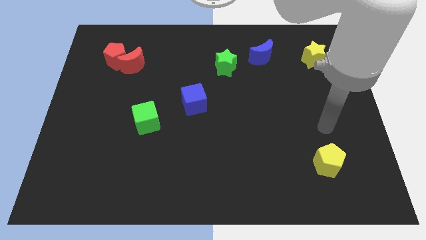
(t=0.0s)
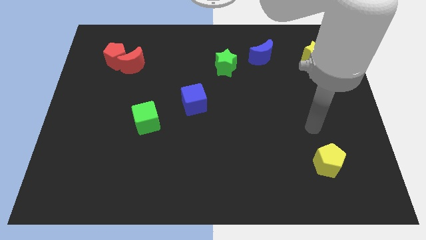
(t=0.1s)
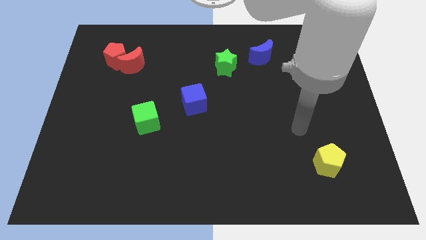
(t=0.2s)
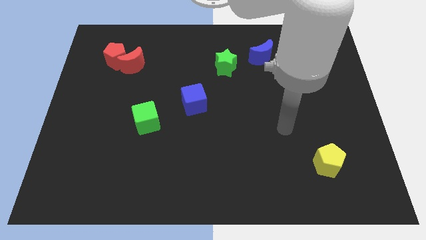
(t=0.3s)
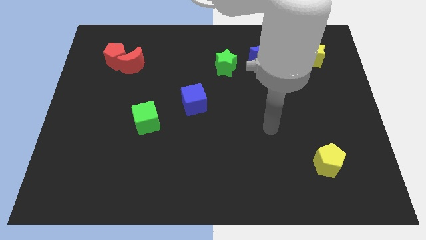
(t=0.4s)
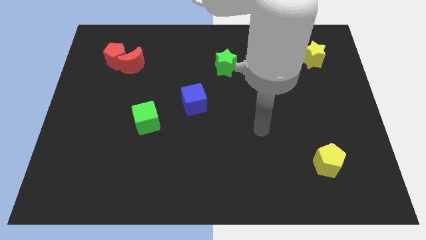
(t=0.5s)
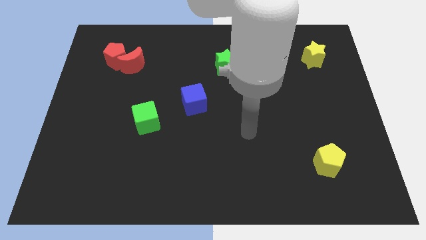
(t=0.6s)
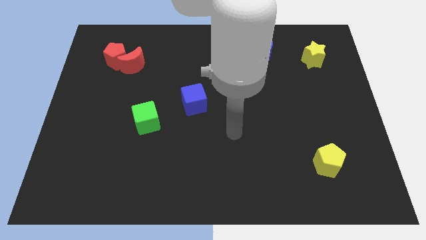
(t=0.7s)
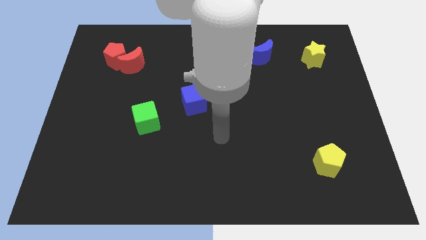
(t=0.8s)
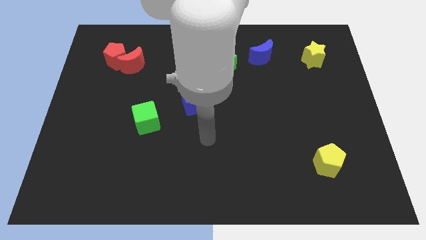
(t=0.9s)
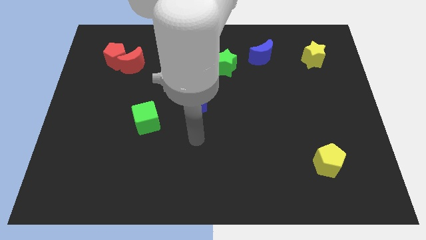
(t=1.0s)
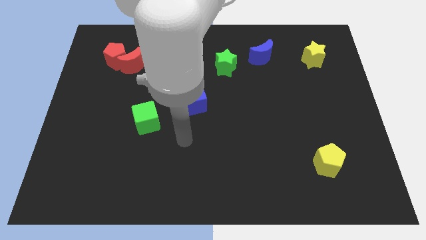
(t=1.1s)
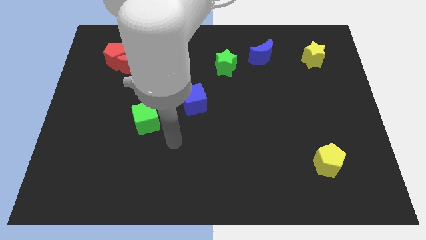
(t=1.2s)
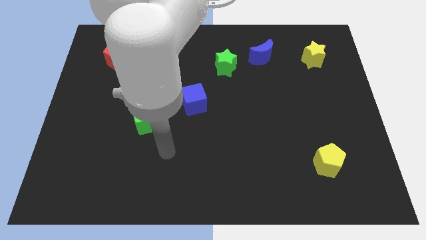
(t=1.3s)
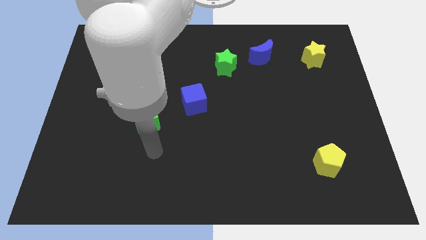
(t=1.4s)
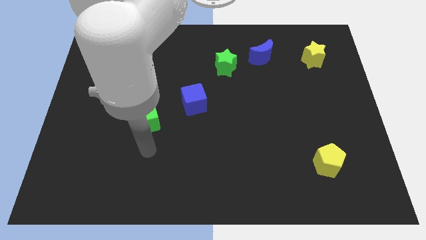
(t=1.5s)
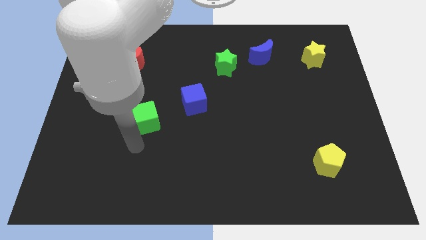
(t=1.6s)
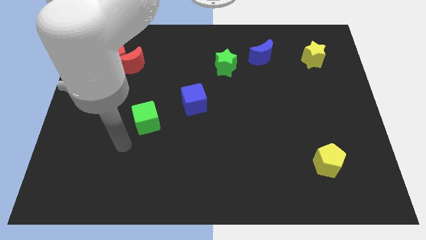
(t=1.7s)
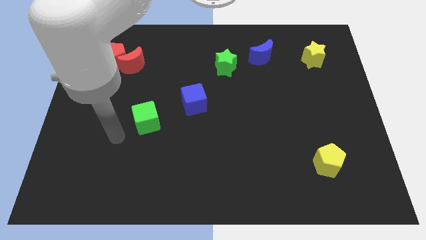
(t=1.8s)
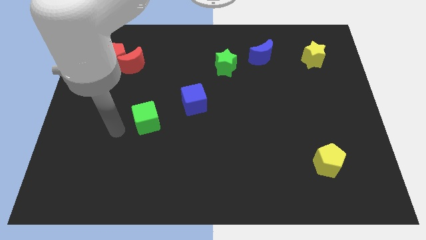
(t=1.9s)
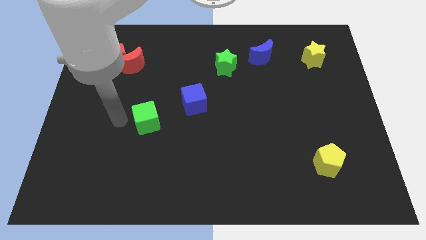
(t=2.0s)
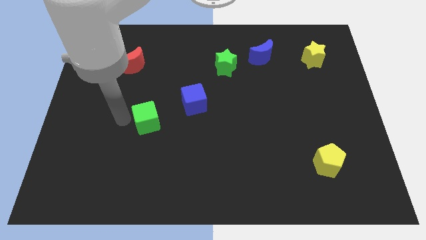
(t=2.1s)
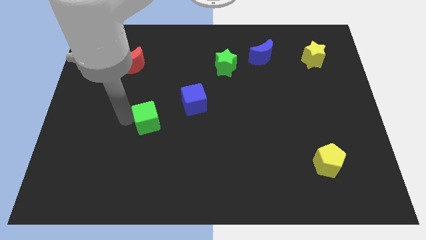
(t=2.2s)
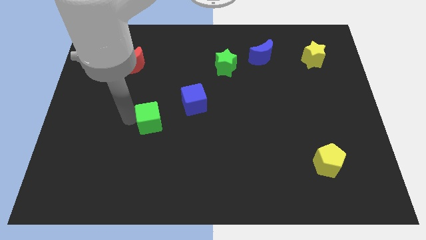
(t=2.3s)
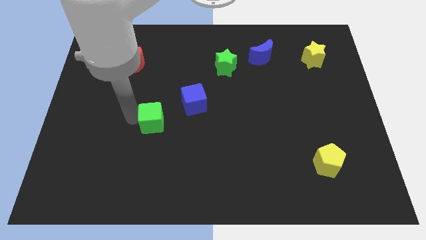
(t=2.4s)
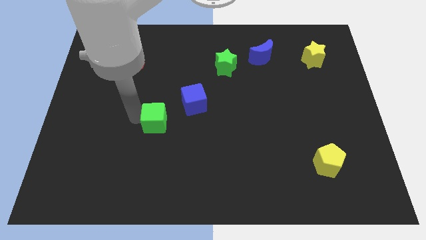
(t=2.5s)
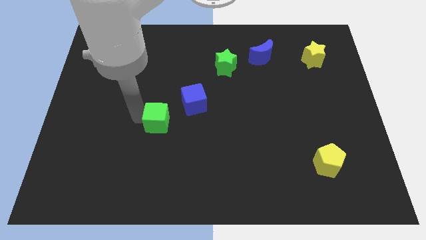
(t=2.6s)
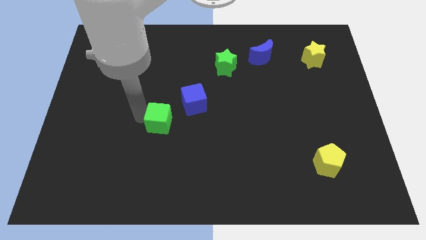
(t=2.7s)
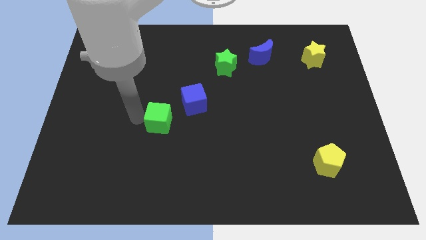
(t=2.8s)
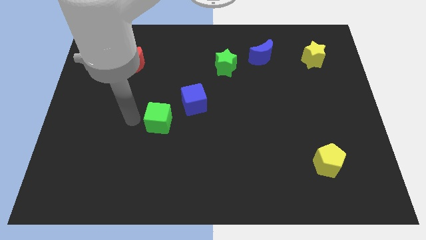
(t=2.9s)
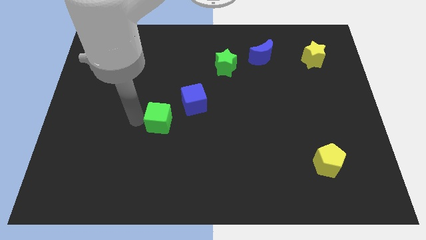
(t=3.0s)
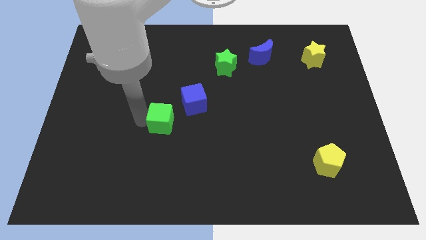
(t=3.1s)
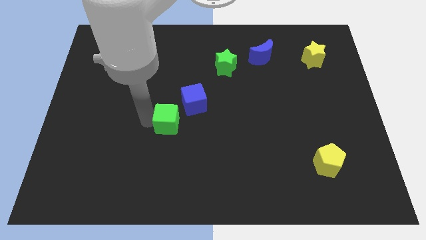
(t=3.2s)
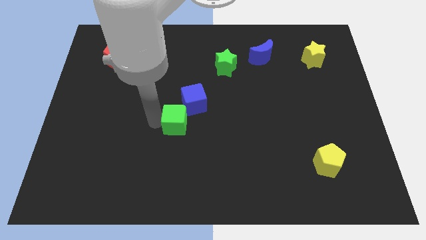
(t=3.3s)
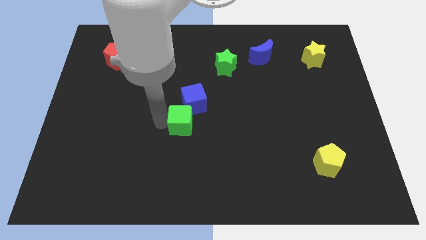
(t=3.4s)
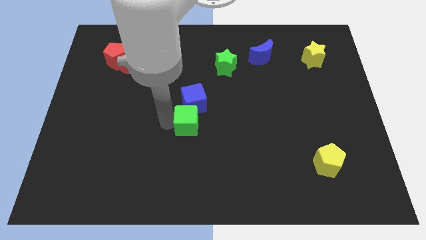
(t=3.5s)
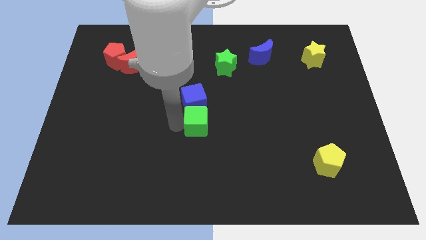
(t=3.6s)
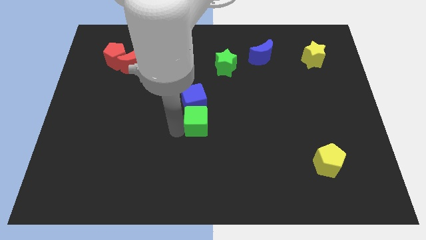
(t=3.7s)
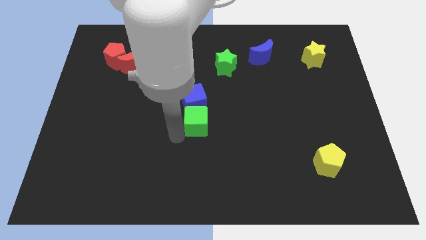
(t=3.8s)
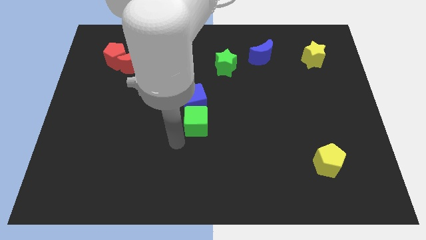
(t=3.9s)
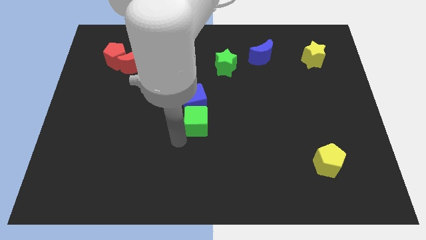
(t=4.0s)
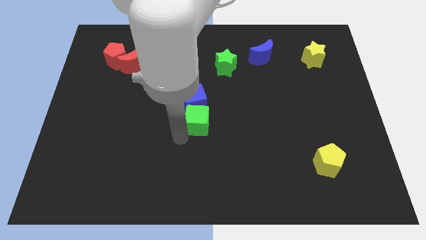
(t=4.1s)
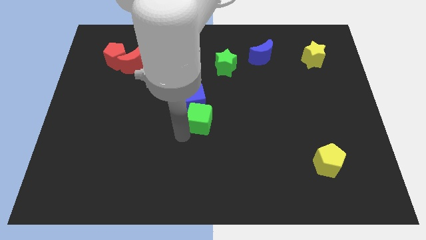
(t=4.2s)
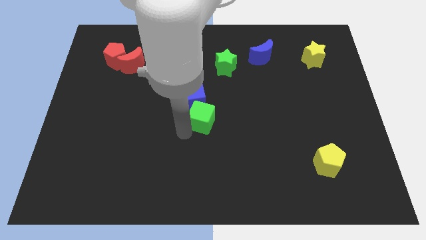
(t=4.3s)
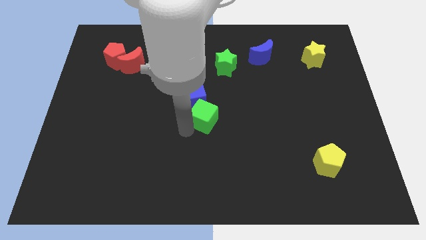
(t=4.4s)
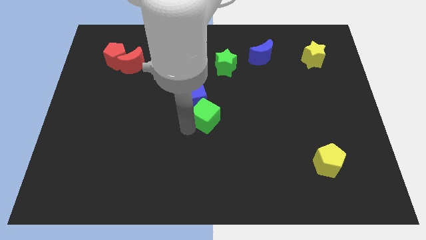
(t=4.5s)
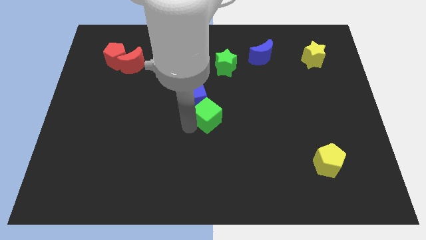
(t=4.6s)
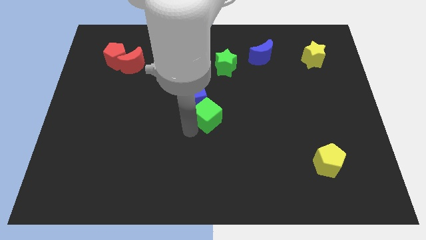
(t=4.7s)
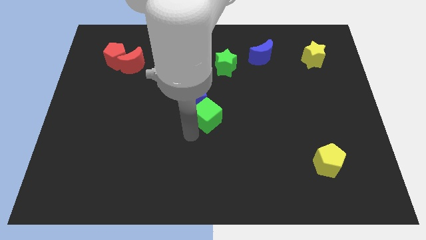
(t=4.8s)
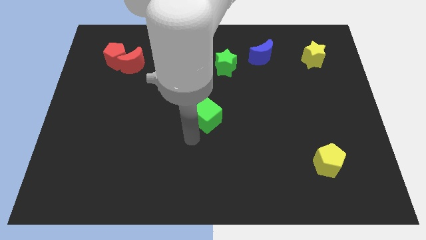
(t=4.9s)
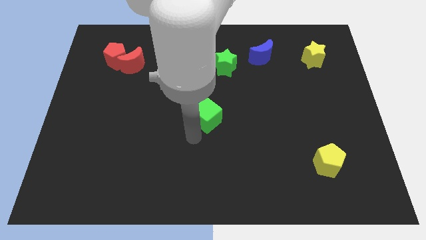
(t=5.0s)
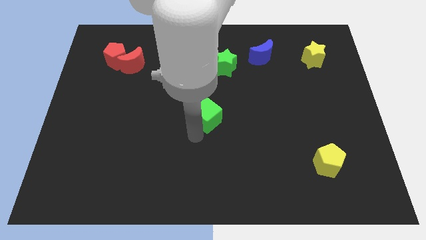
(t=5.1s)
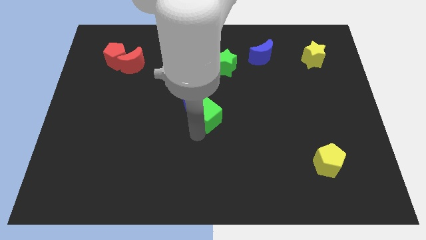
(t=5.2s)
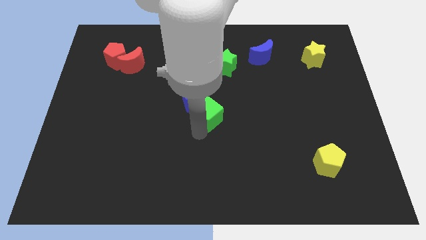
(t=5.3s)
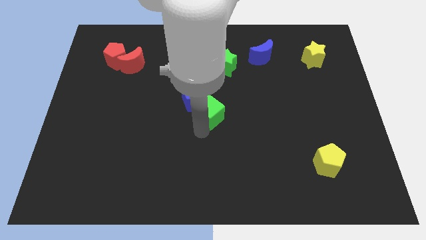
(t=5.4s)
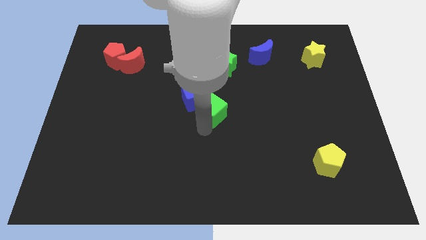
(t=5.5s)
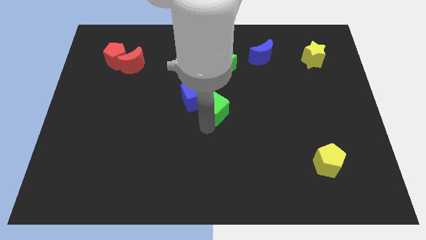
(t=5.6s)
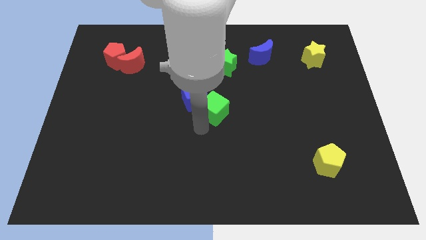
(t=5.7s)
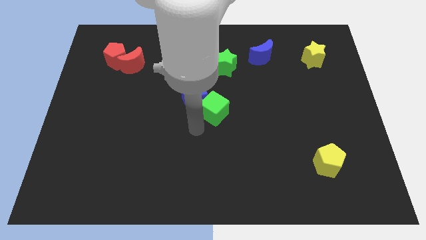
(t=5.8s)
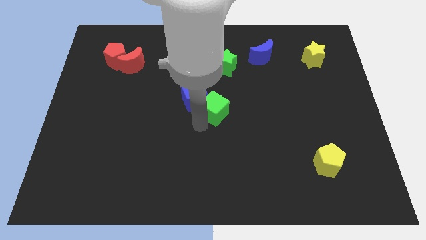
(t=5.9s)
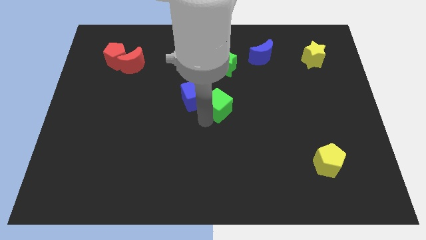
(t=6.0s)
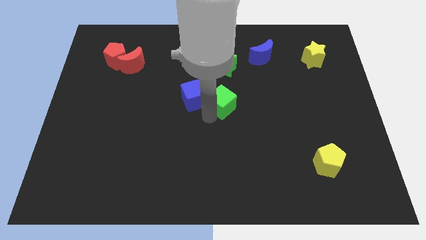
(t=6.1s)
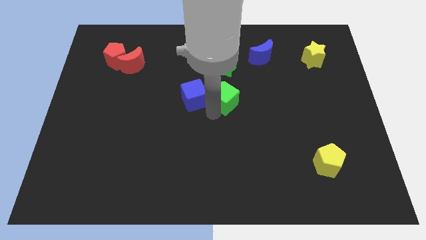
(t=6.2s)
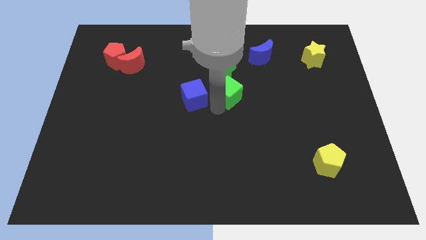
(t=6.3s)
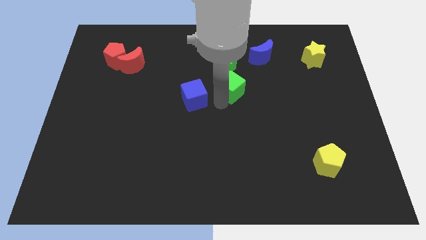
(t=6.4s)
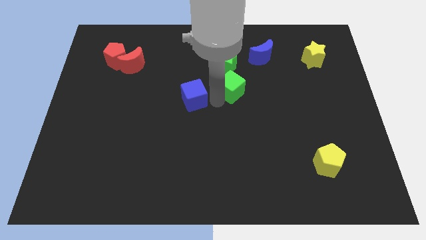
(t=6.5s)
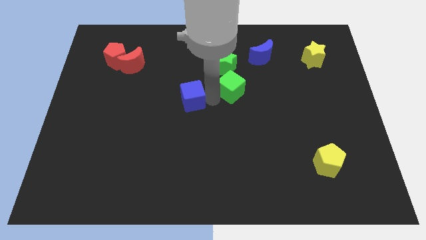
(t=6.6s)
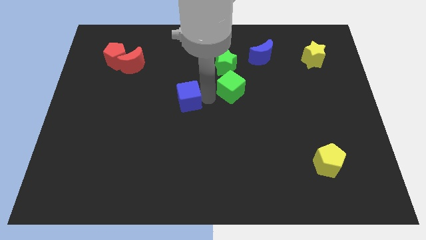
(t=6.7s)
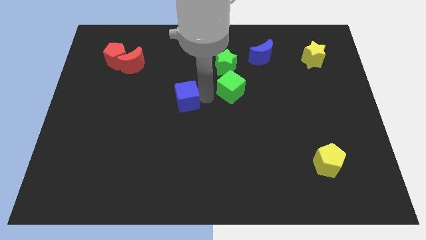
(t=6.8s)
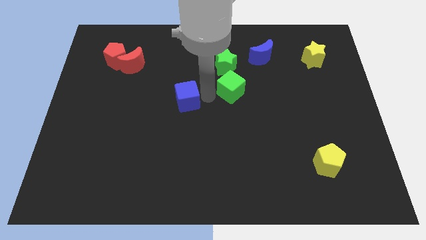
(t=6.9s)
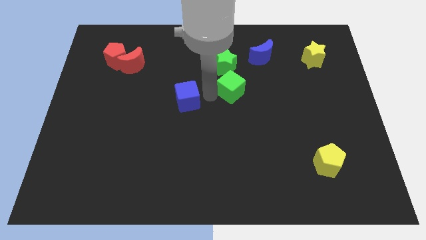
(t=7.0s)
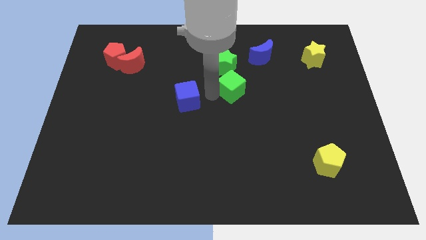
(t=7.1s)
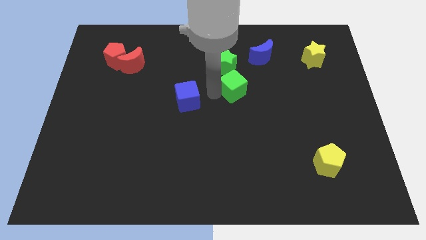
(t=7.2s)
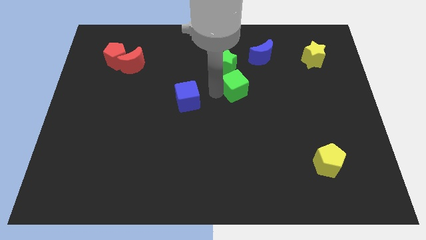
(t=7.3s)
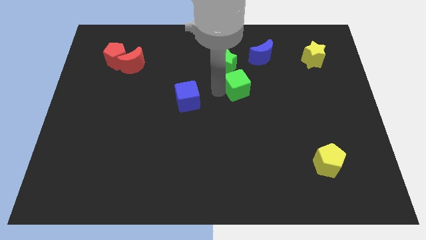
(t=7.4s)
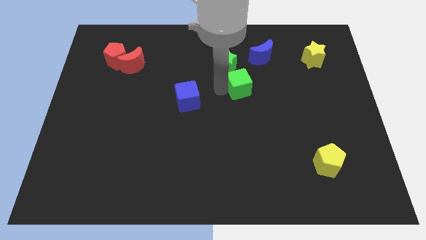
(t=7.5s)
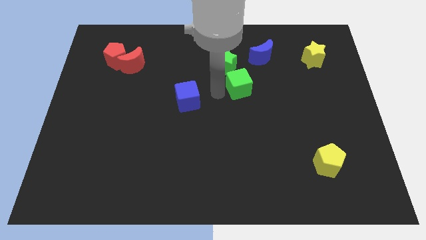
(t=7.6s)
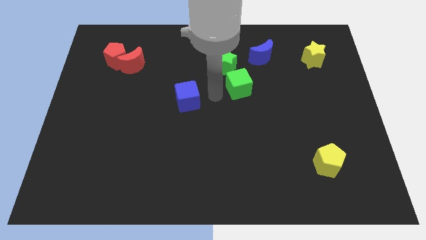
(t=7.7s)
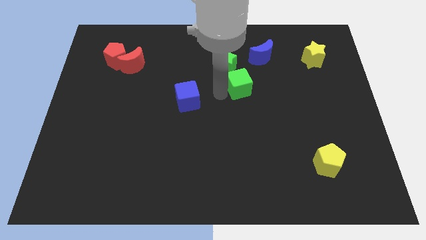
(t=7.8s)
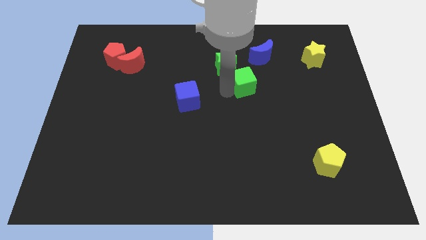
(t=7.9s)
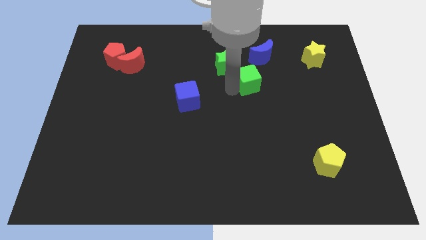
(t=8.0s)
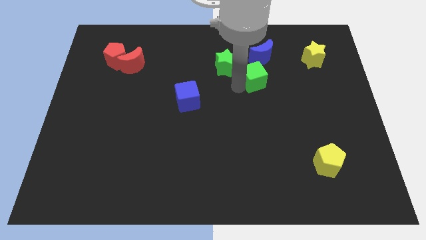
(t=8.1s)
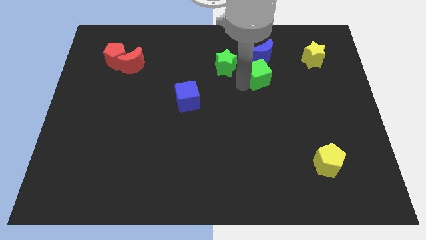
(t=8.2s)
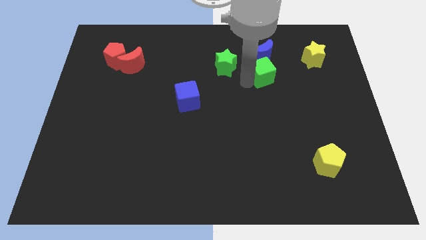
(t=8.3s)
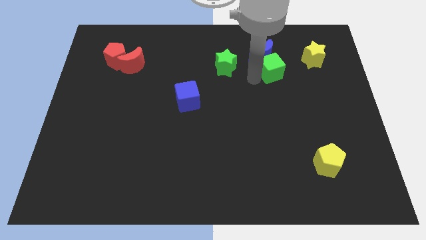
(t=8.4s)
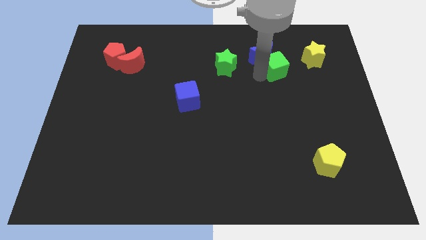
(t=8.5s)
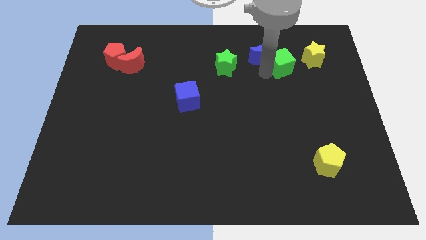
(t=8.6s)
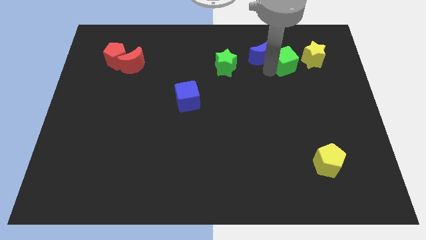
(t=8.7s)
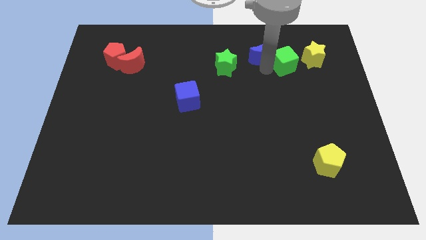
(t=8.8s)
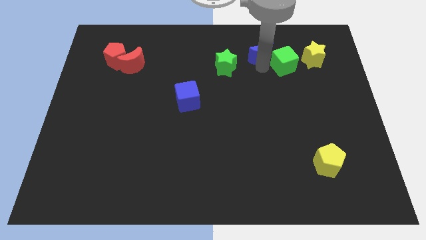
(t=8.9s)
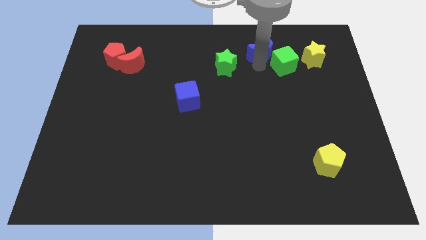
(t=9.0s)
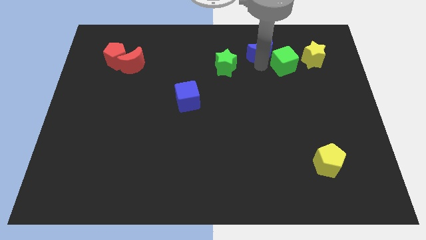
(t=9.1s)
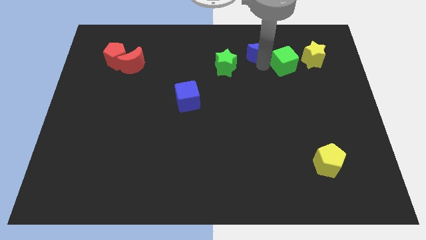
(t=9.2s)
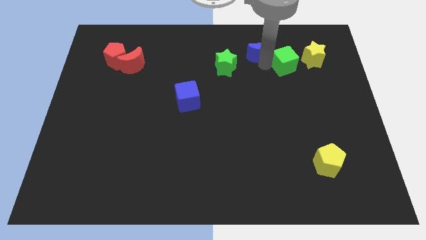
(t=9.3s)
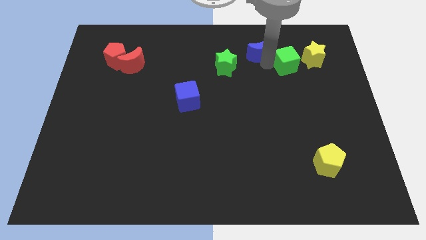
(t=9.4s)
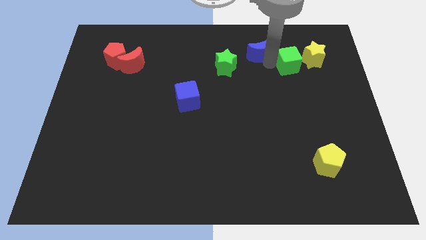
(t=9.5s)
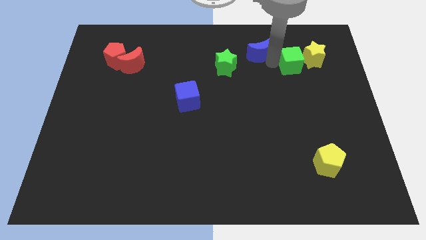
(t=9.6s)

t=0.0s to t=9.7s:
put the green cube next to the yellow star
